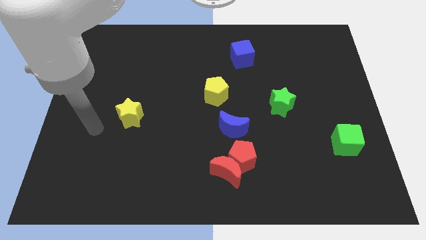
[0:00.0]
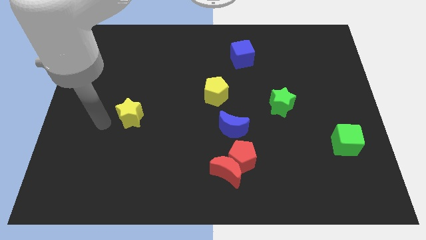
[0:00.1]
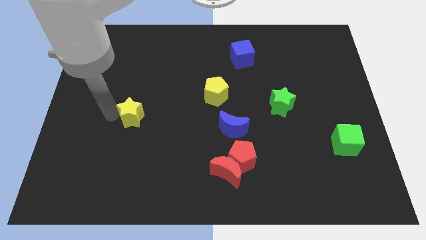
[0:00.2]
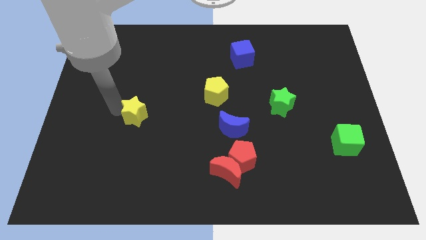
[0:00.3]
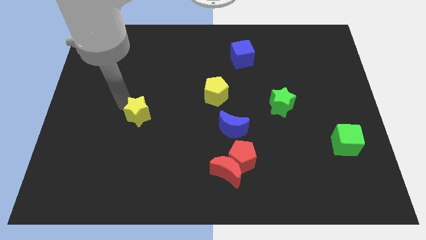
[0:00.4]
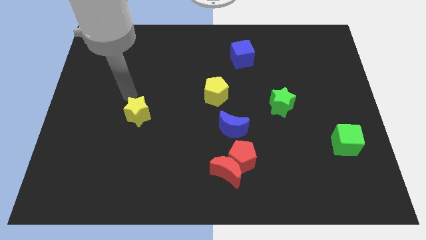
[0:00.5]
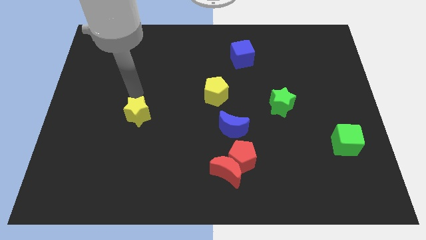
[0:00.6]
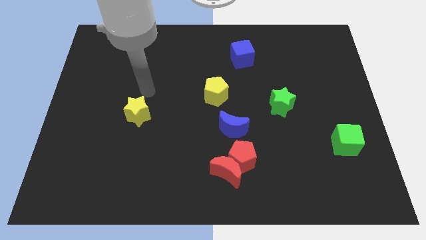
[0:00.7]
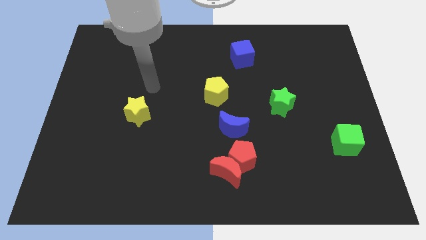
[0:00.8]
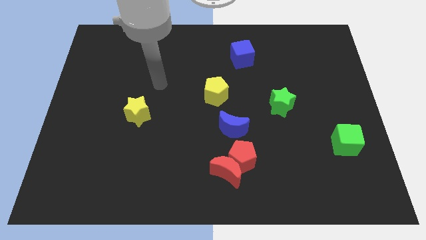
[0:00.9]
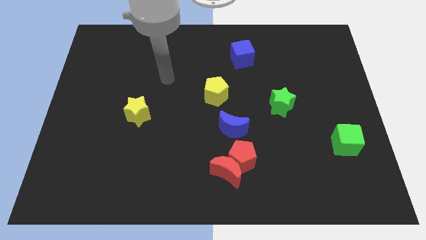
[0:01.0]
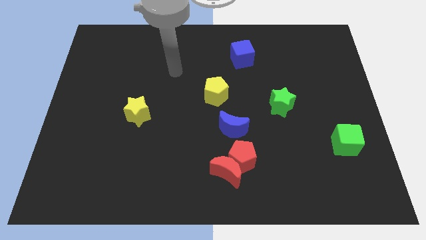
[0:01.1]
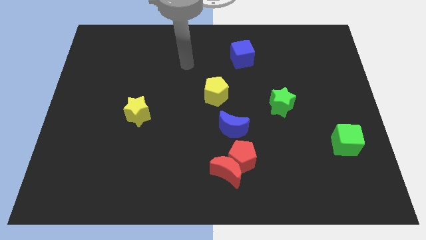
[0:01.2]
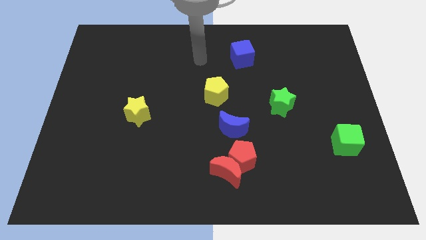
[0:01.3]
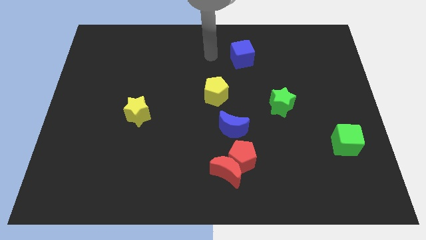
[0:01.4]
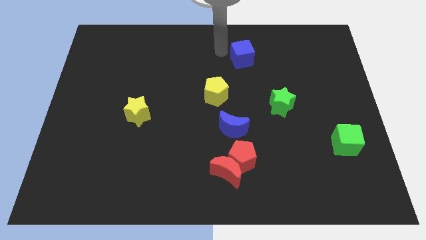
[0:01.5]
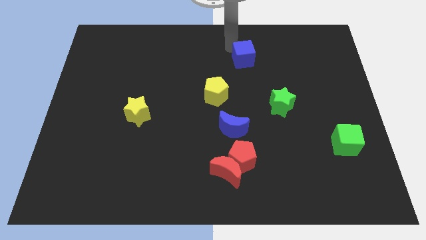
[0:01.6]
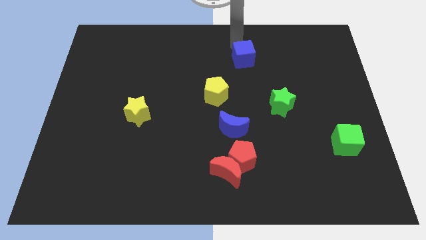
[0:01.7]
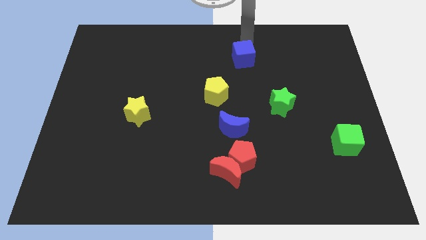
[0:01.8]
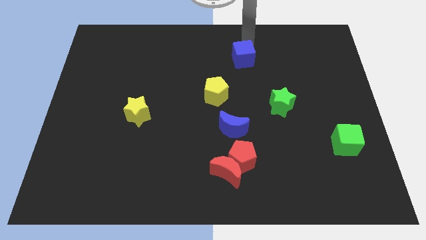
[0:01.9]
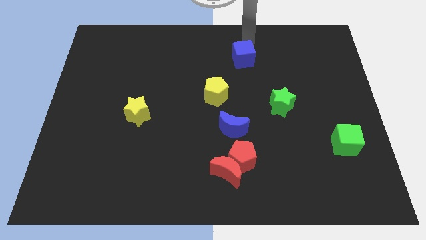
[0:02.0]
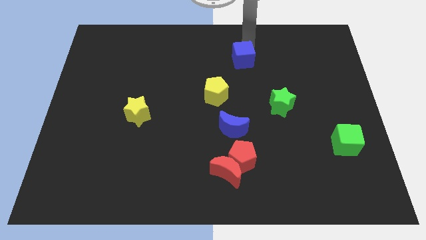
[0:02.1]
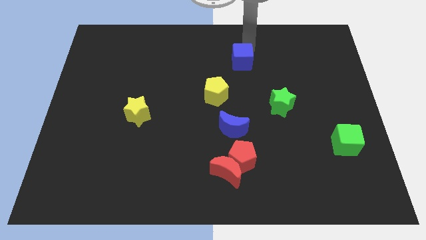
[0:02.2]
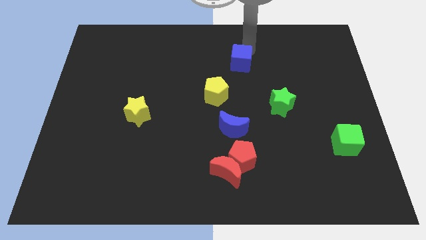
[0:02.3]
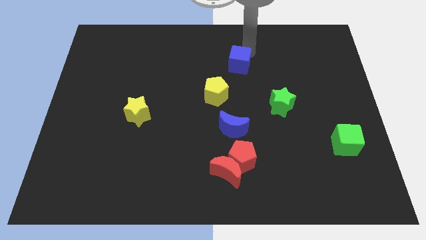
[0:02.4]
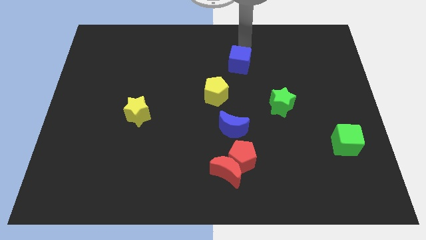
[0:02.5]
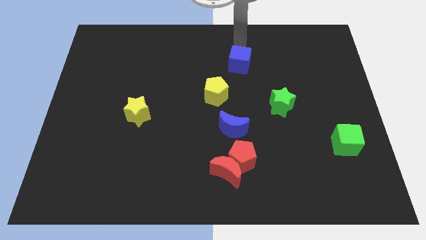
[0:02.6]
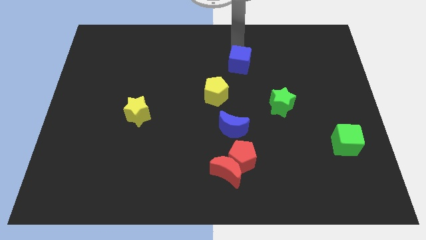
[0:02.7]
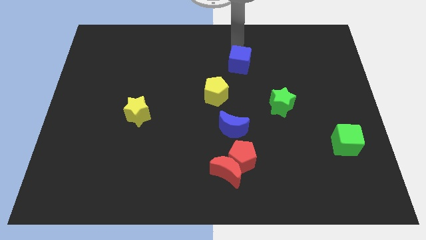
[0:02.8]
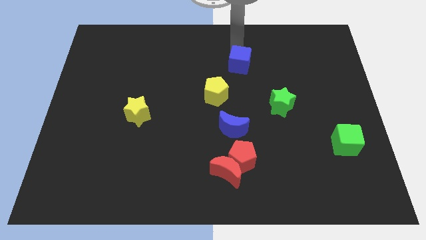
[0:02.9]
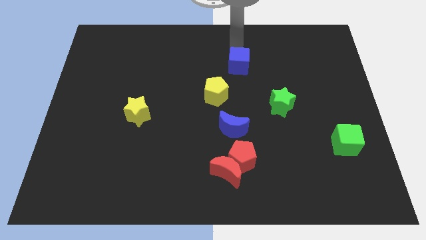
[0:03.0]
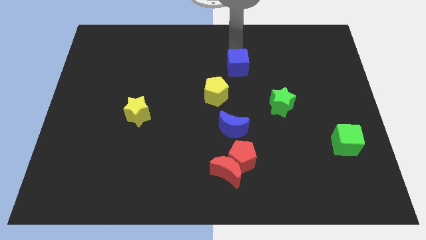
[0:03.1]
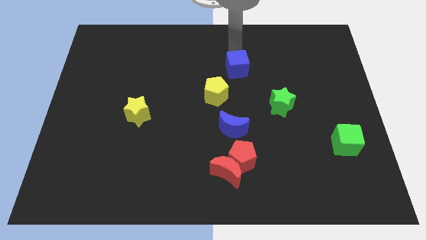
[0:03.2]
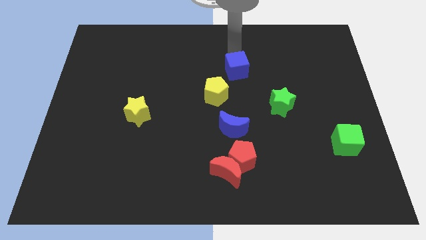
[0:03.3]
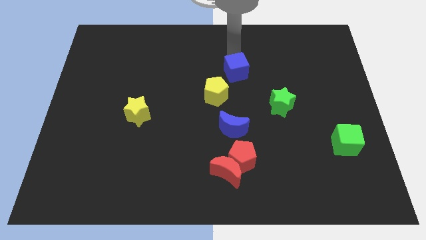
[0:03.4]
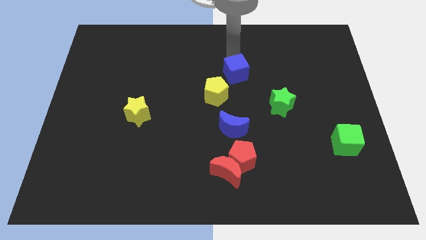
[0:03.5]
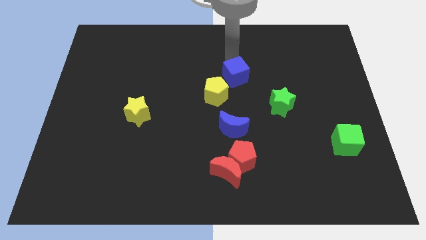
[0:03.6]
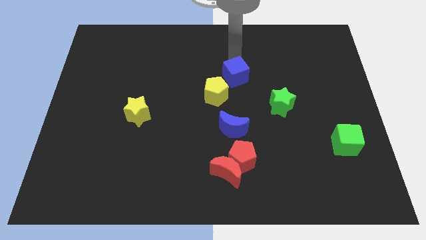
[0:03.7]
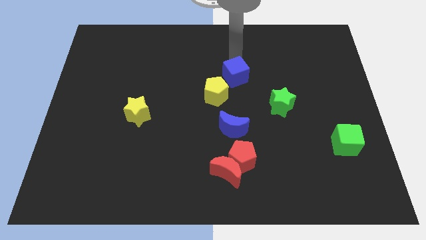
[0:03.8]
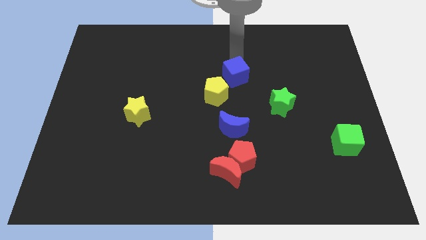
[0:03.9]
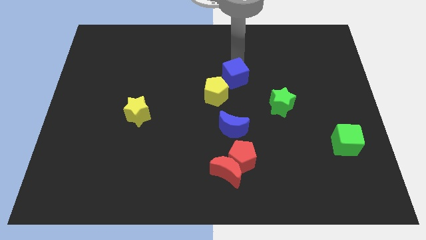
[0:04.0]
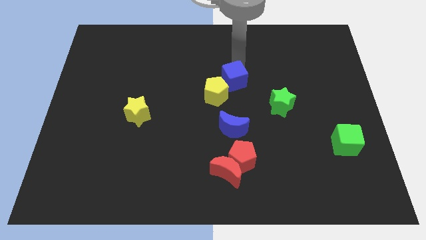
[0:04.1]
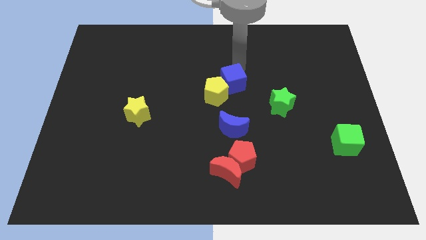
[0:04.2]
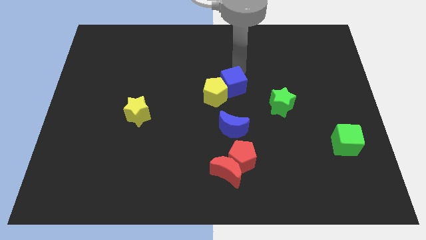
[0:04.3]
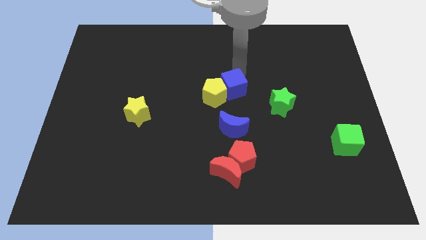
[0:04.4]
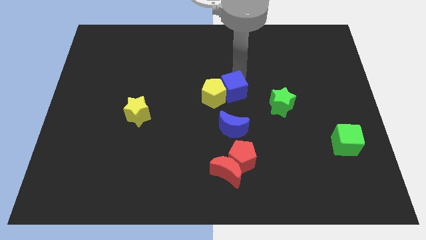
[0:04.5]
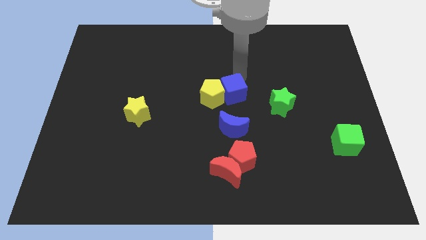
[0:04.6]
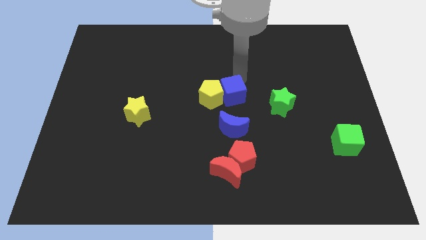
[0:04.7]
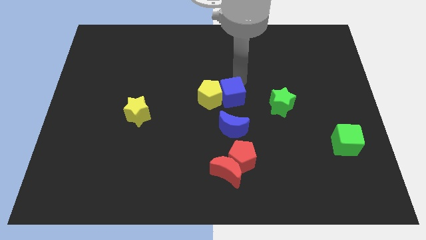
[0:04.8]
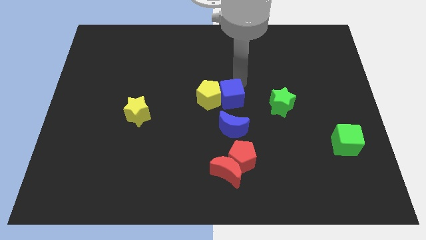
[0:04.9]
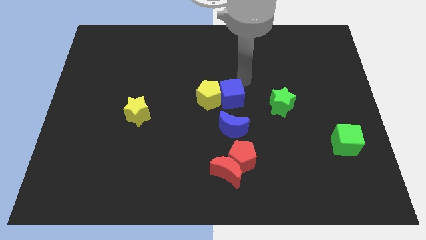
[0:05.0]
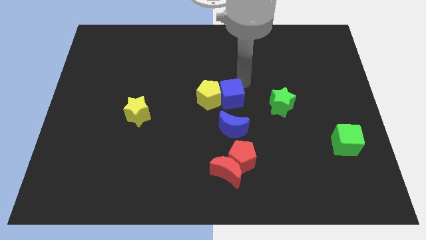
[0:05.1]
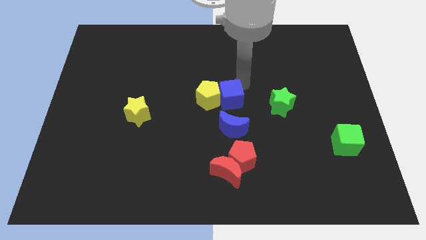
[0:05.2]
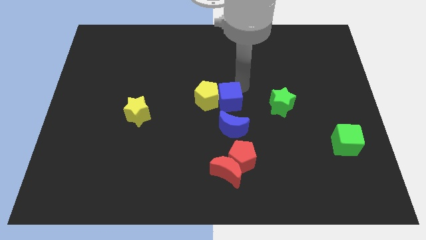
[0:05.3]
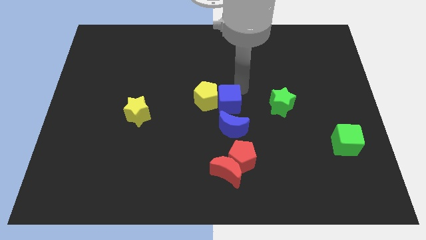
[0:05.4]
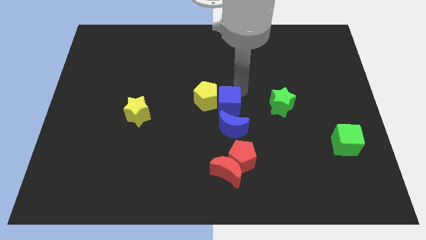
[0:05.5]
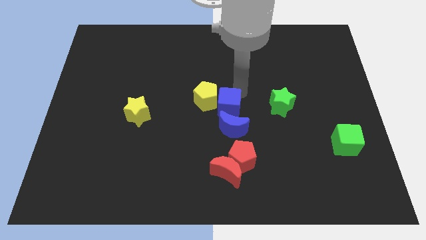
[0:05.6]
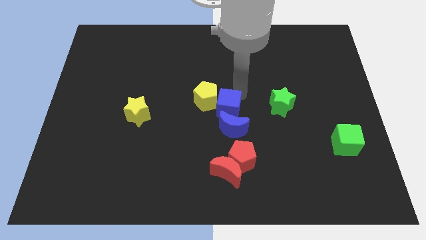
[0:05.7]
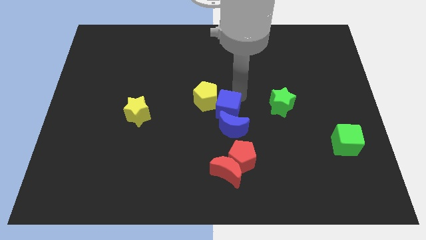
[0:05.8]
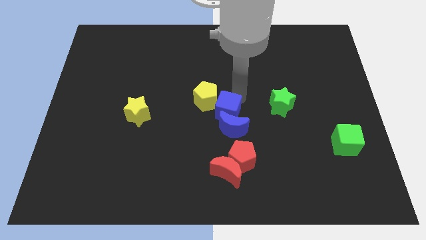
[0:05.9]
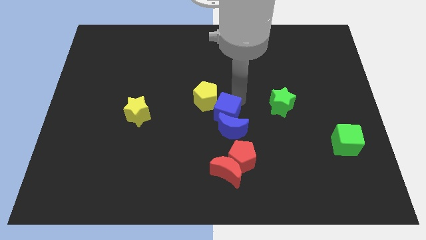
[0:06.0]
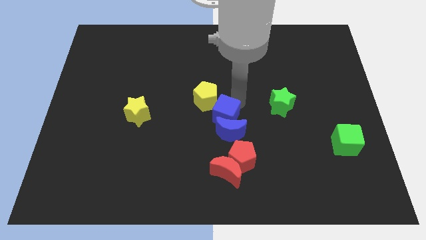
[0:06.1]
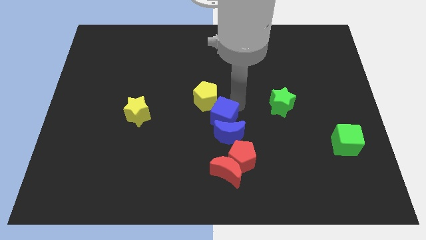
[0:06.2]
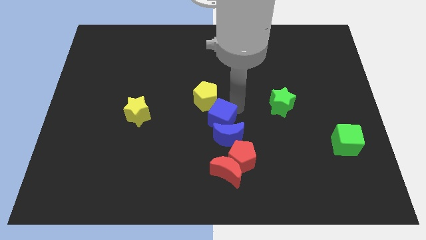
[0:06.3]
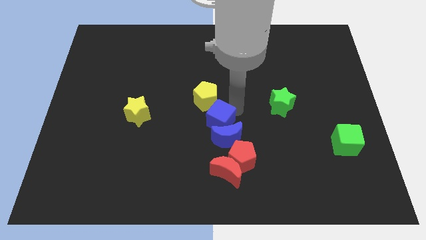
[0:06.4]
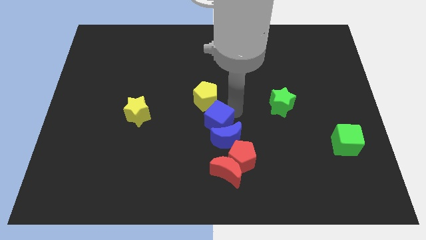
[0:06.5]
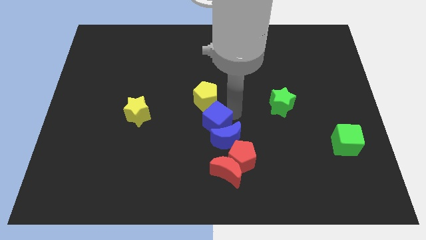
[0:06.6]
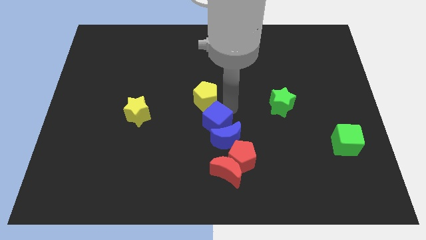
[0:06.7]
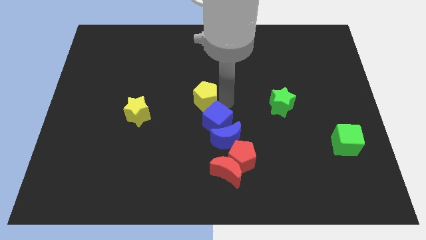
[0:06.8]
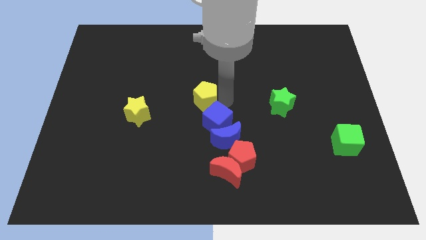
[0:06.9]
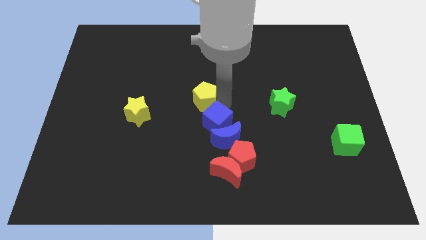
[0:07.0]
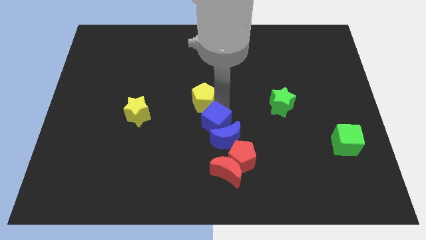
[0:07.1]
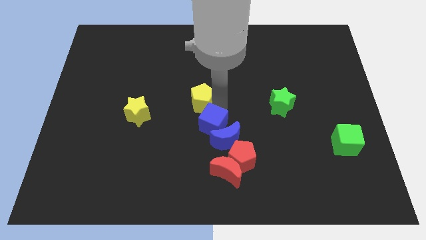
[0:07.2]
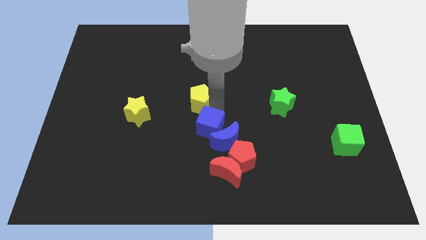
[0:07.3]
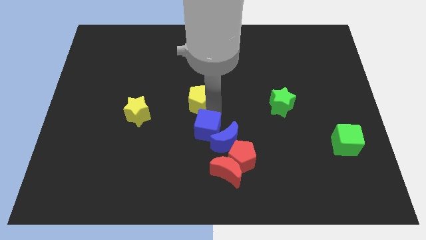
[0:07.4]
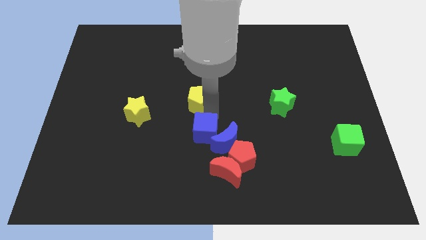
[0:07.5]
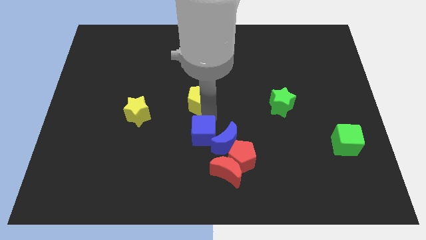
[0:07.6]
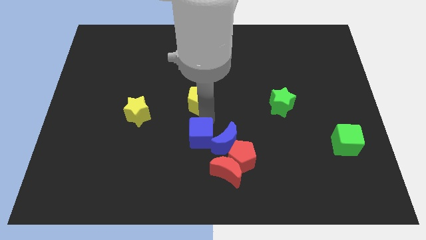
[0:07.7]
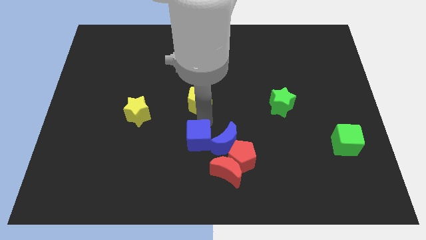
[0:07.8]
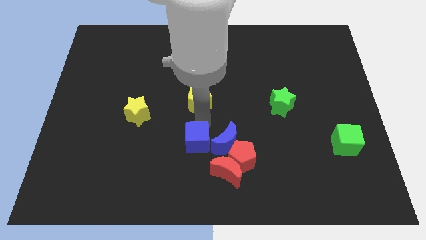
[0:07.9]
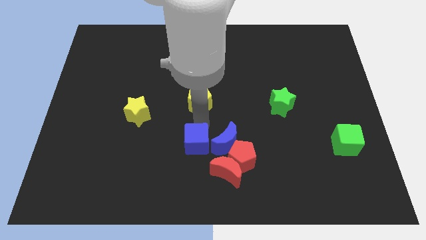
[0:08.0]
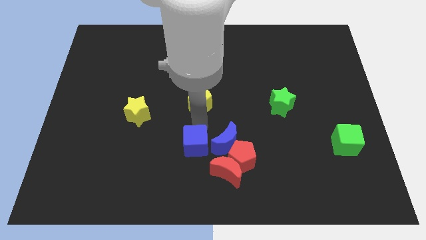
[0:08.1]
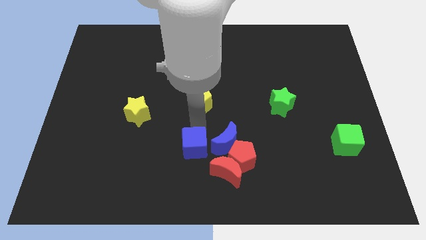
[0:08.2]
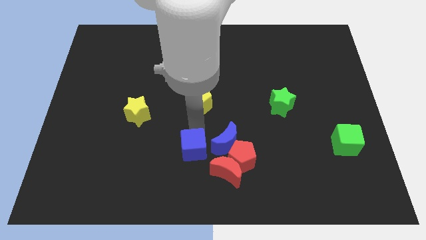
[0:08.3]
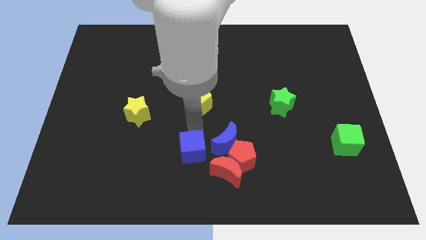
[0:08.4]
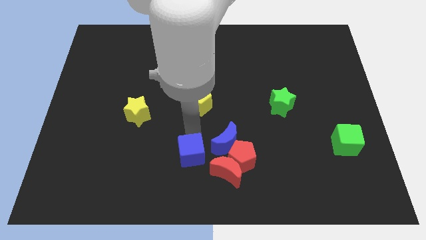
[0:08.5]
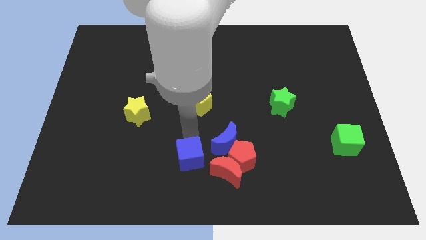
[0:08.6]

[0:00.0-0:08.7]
slide the blue cube to the bottom side
